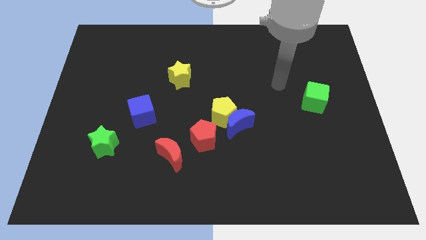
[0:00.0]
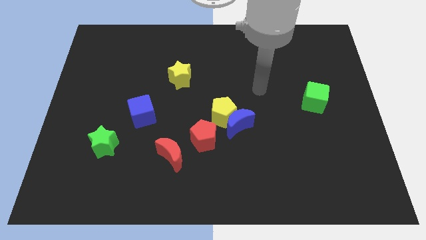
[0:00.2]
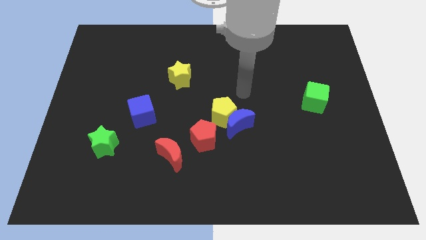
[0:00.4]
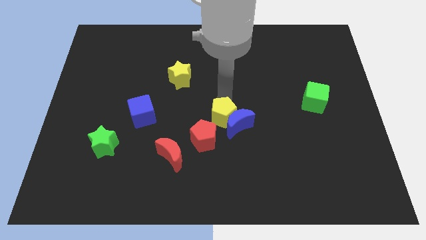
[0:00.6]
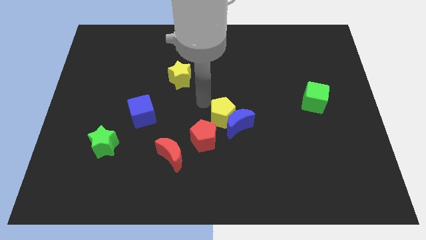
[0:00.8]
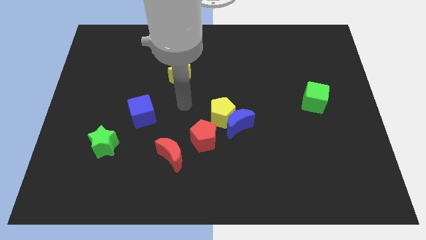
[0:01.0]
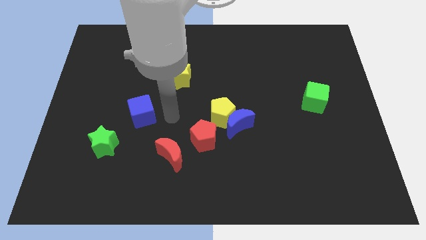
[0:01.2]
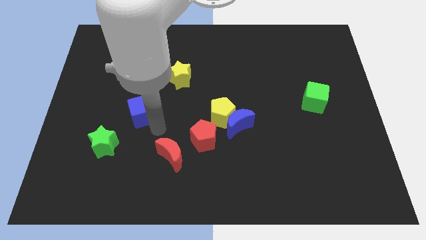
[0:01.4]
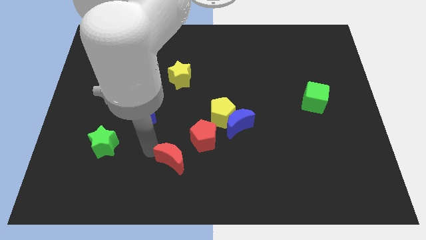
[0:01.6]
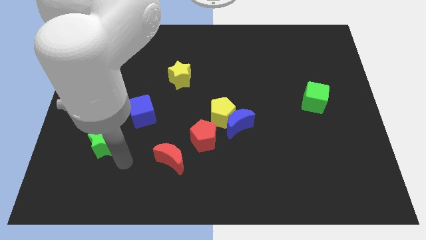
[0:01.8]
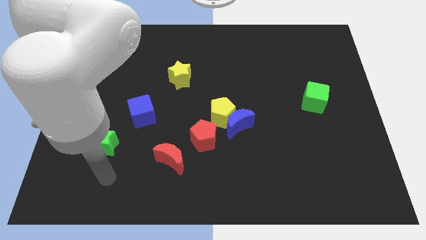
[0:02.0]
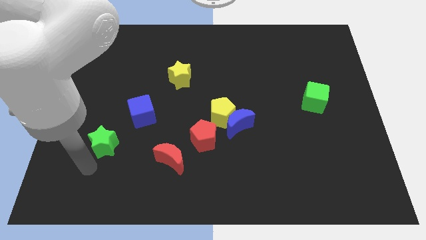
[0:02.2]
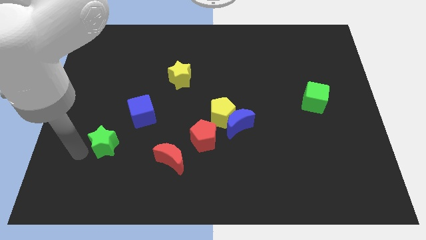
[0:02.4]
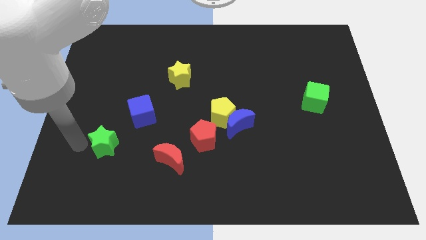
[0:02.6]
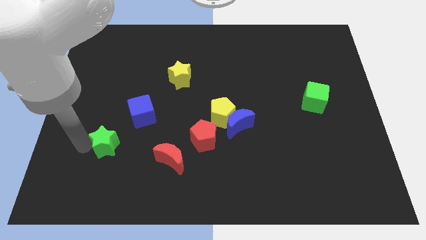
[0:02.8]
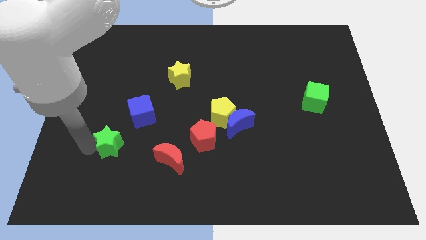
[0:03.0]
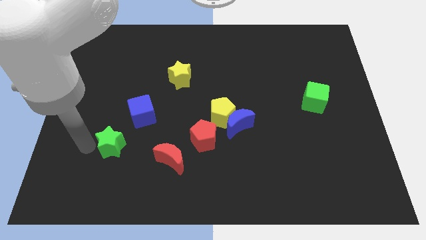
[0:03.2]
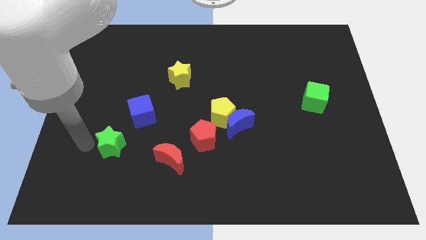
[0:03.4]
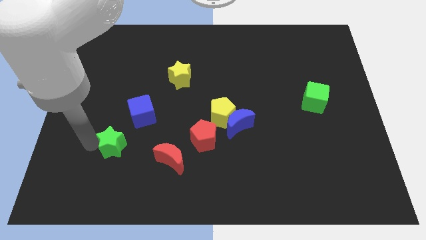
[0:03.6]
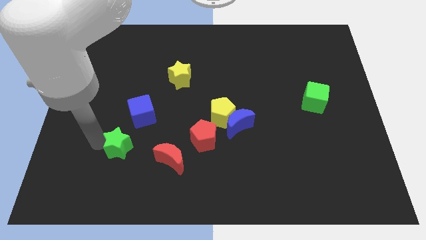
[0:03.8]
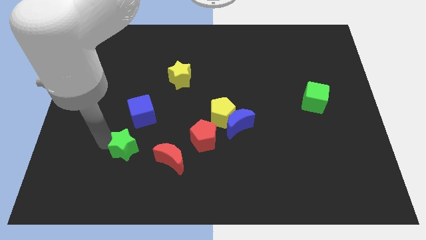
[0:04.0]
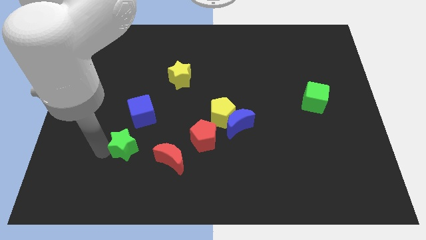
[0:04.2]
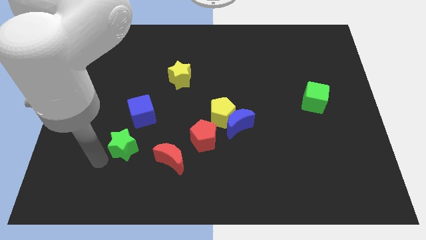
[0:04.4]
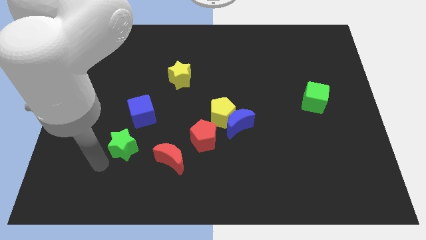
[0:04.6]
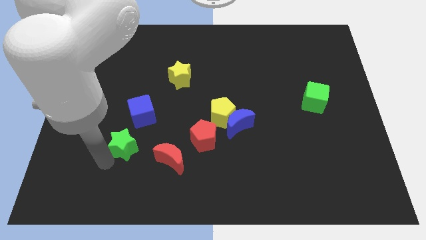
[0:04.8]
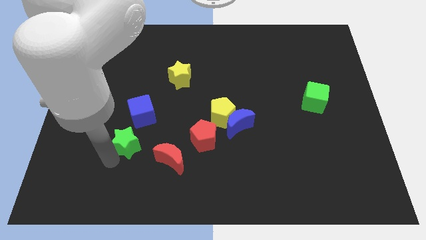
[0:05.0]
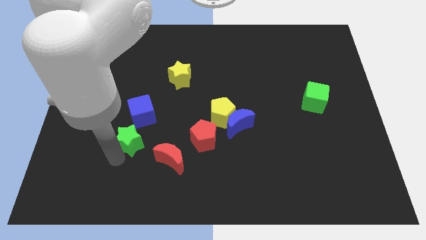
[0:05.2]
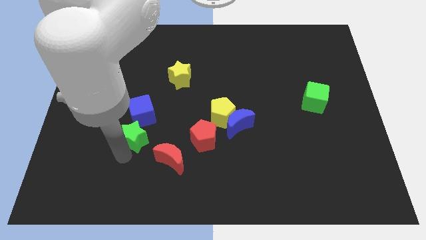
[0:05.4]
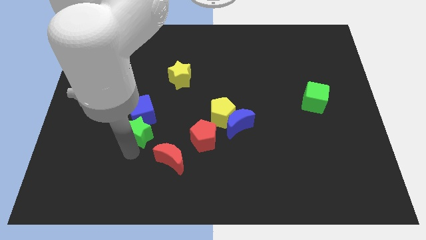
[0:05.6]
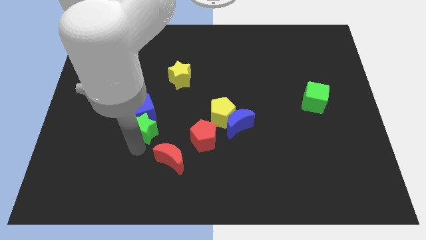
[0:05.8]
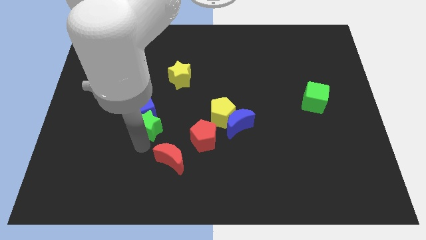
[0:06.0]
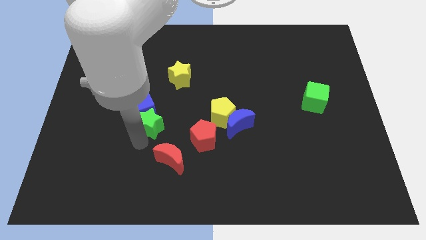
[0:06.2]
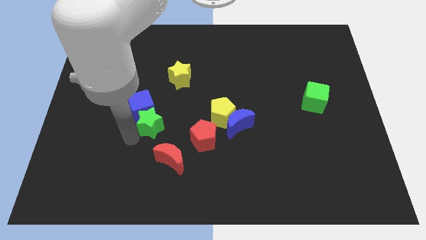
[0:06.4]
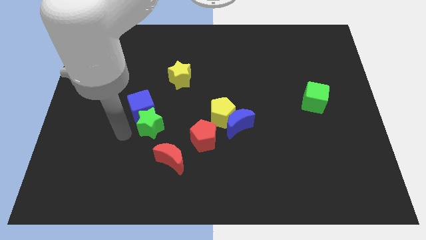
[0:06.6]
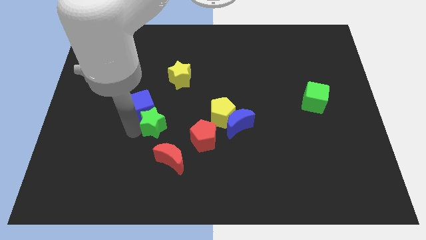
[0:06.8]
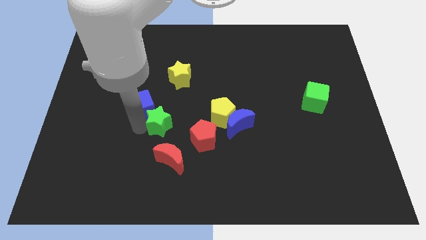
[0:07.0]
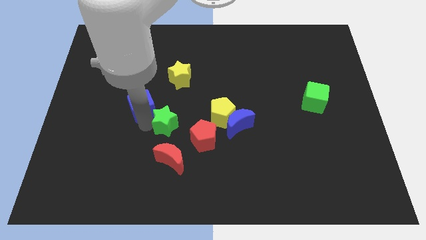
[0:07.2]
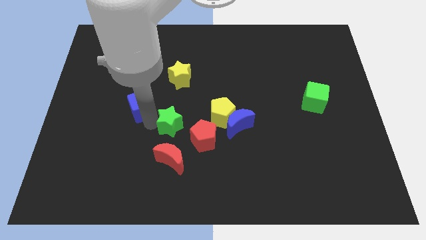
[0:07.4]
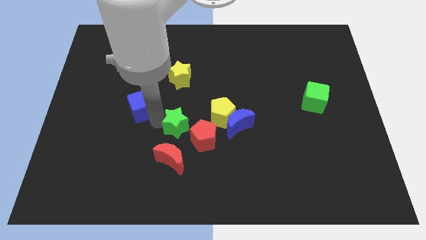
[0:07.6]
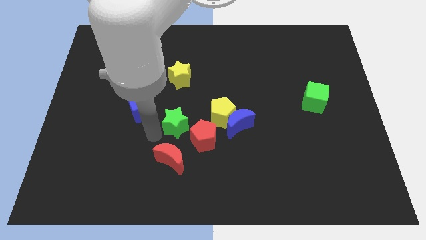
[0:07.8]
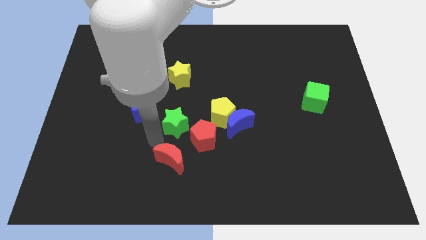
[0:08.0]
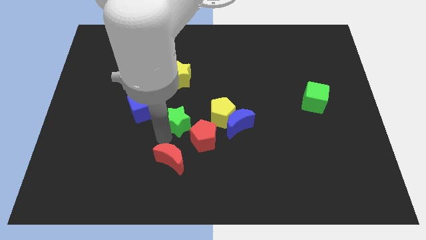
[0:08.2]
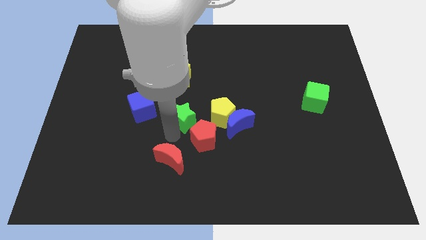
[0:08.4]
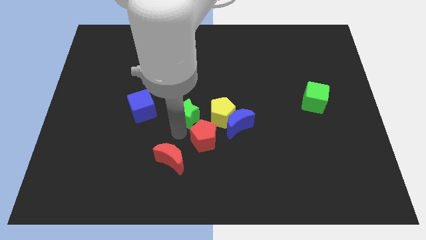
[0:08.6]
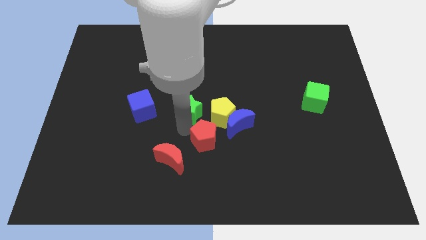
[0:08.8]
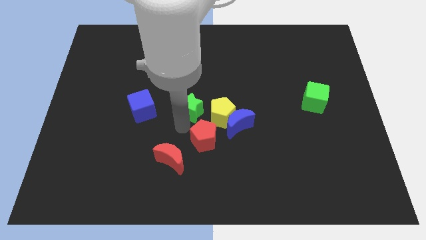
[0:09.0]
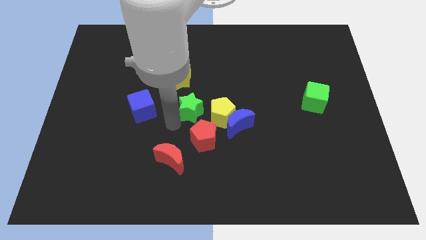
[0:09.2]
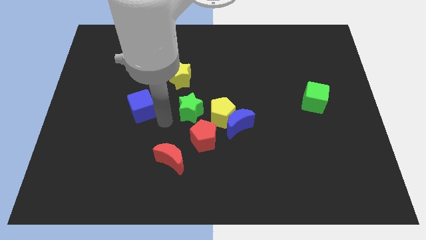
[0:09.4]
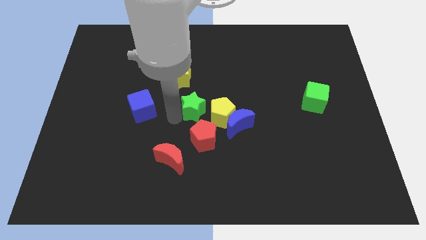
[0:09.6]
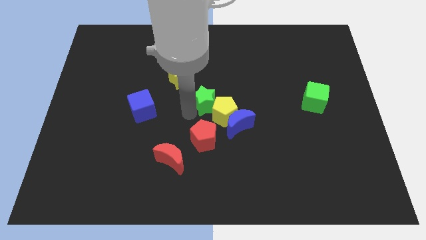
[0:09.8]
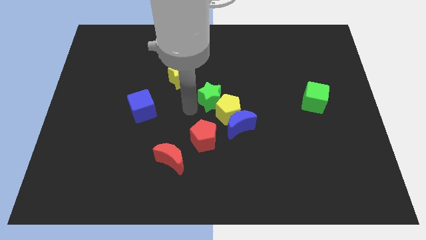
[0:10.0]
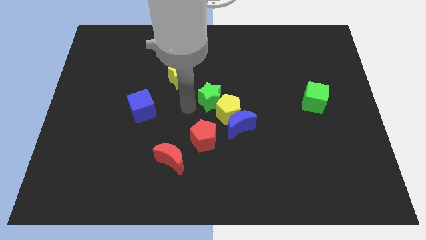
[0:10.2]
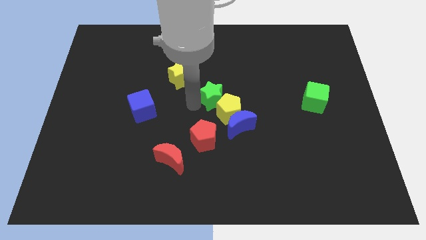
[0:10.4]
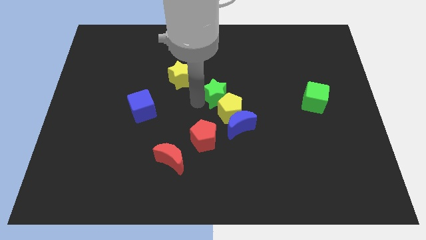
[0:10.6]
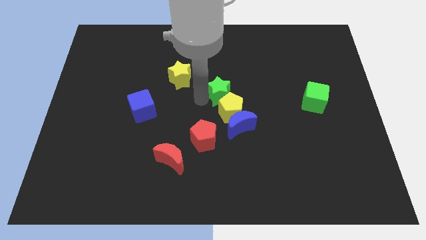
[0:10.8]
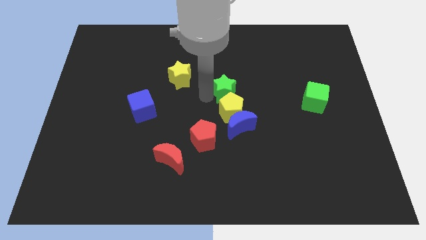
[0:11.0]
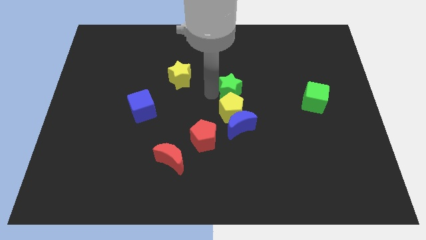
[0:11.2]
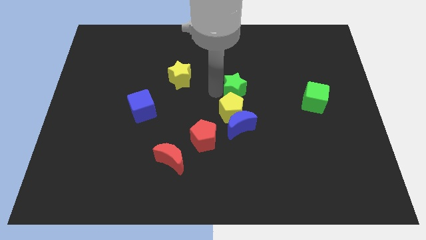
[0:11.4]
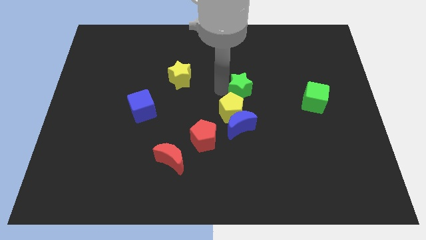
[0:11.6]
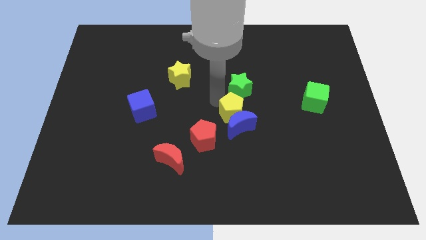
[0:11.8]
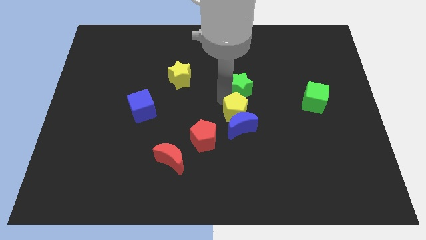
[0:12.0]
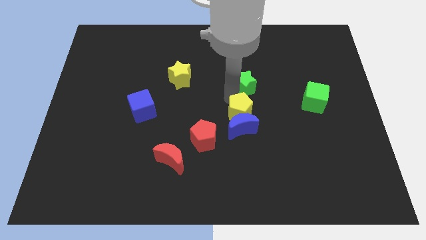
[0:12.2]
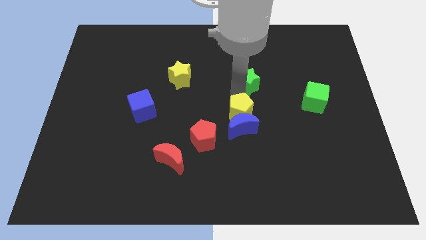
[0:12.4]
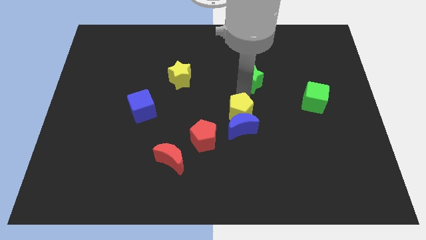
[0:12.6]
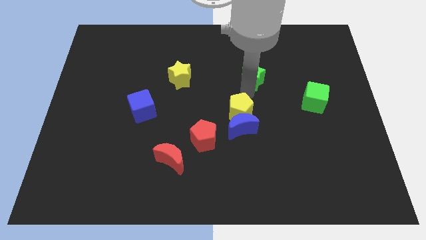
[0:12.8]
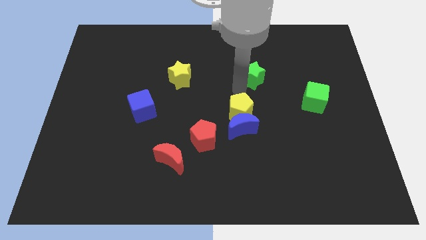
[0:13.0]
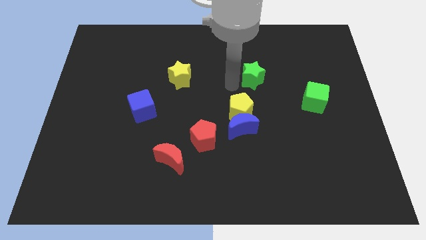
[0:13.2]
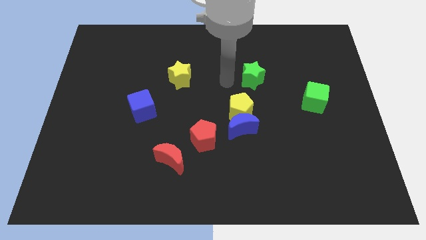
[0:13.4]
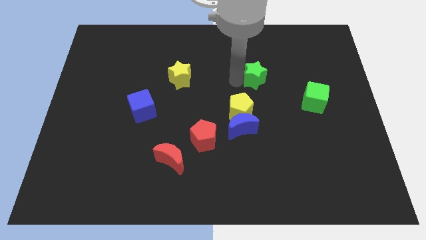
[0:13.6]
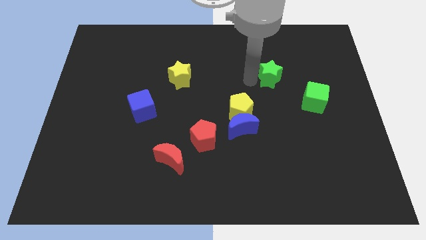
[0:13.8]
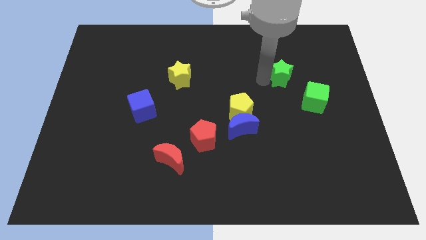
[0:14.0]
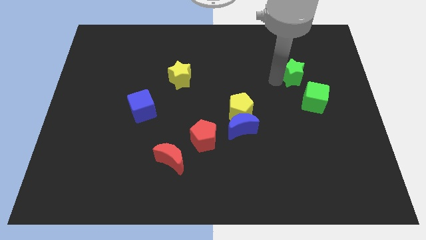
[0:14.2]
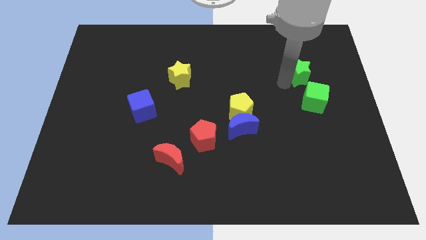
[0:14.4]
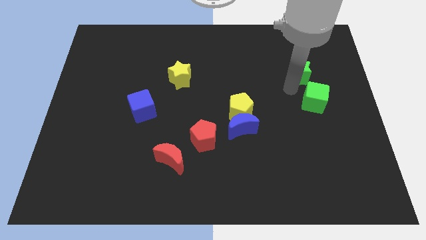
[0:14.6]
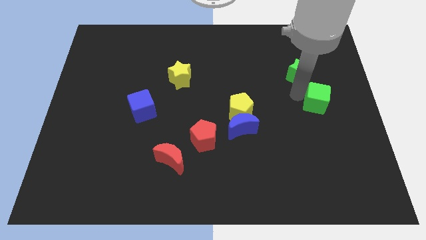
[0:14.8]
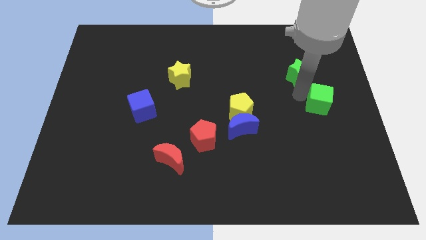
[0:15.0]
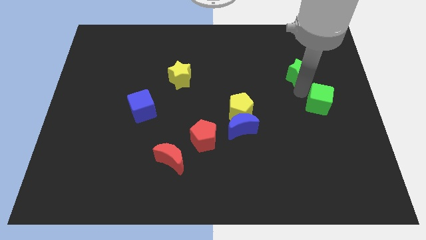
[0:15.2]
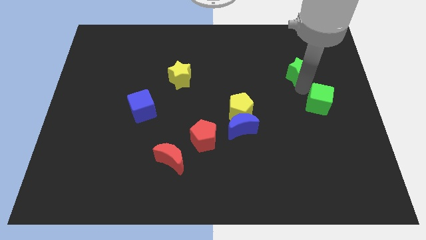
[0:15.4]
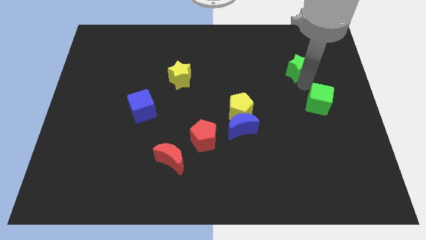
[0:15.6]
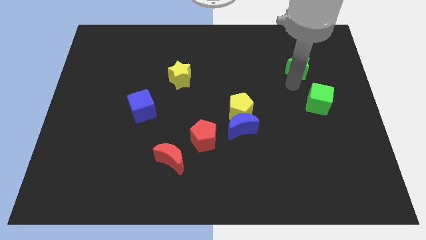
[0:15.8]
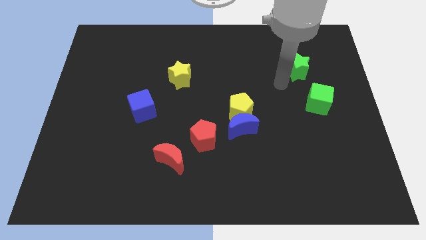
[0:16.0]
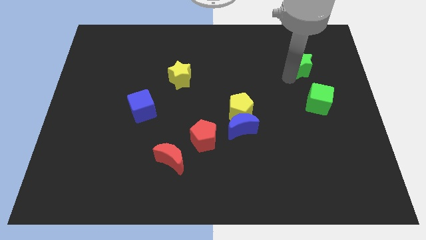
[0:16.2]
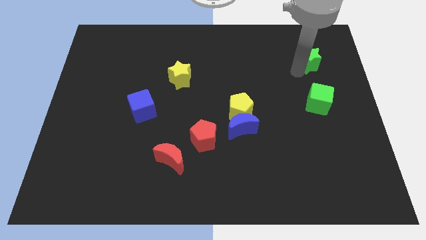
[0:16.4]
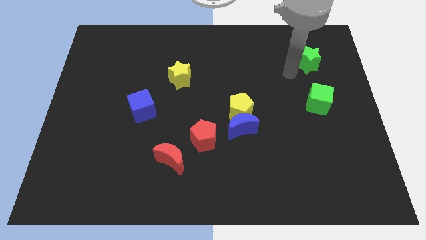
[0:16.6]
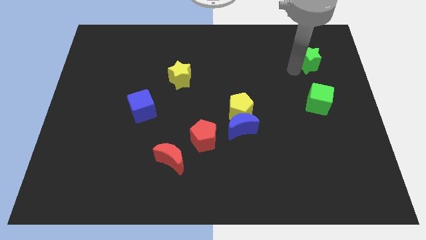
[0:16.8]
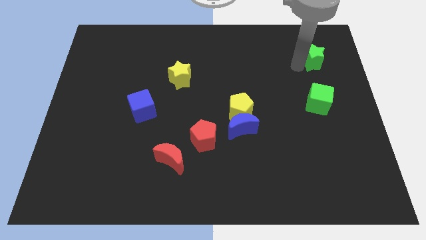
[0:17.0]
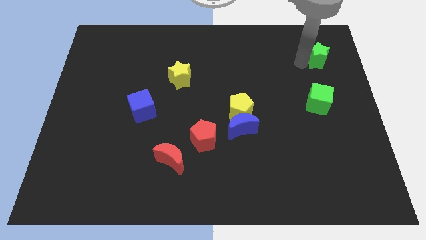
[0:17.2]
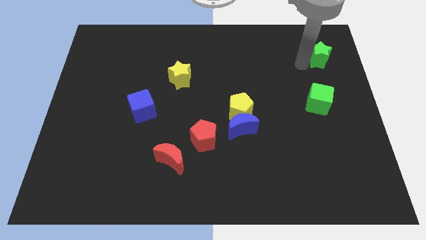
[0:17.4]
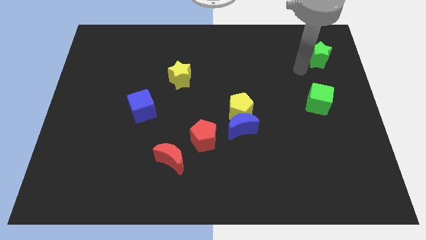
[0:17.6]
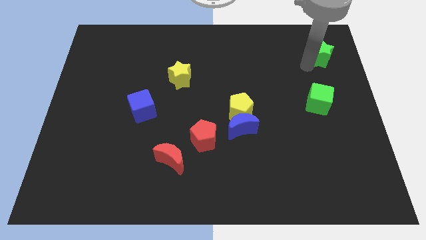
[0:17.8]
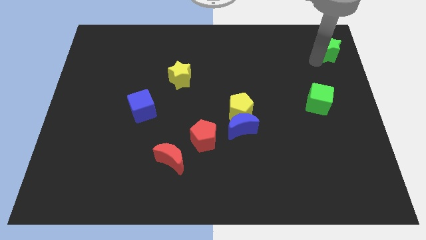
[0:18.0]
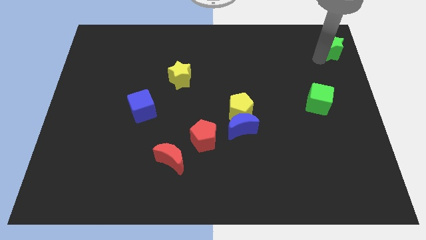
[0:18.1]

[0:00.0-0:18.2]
push the green star to the top right
